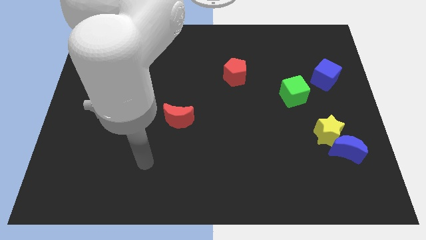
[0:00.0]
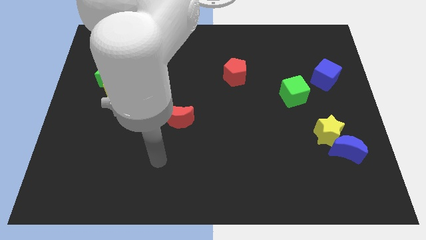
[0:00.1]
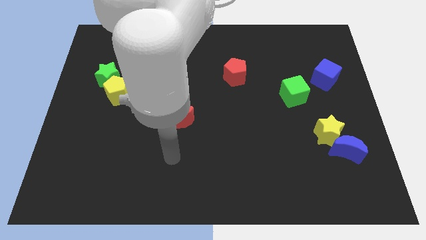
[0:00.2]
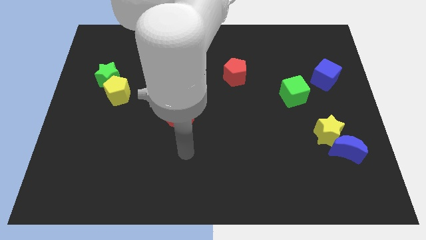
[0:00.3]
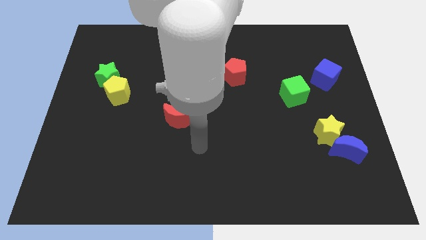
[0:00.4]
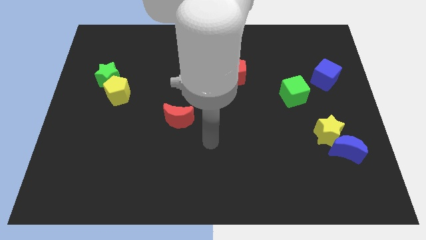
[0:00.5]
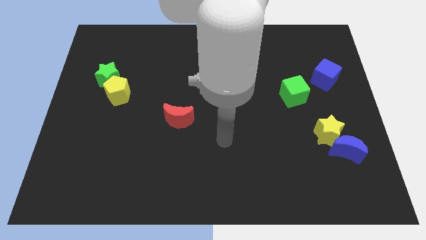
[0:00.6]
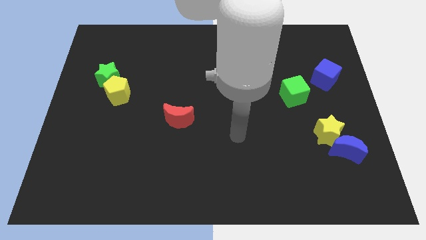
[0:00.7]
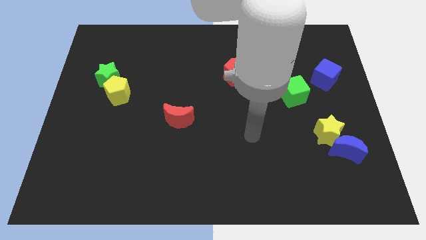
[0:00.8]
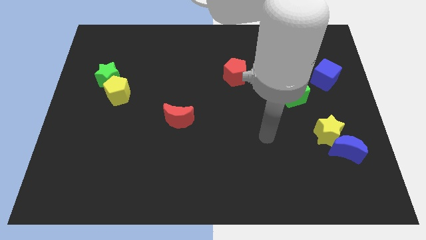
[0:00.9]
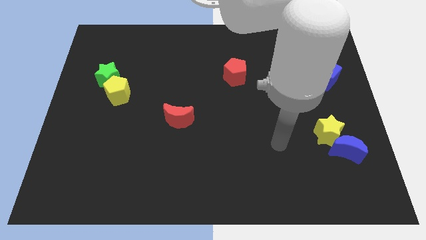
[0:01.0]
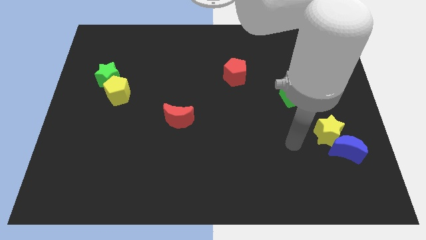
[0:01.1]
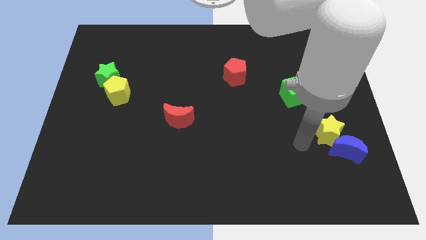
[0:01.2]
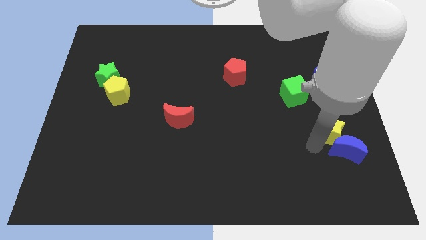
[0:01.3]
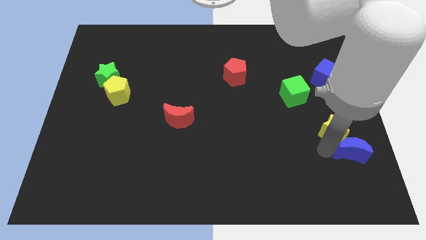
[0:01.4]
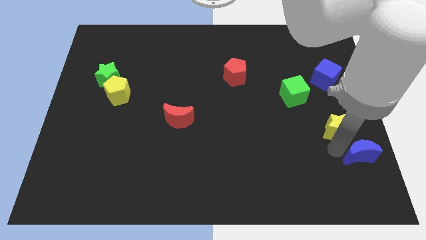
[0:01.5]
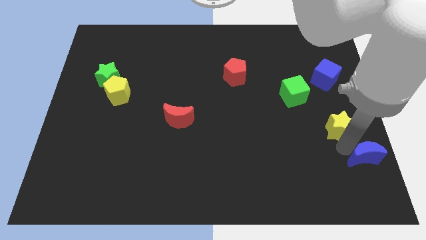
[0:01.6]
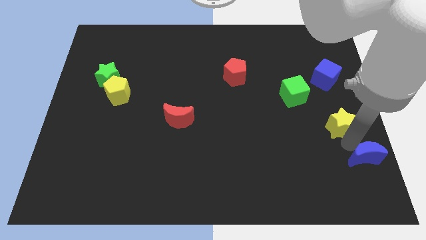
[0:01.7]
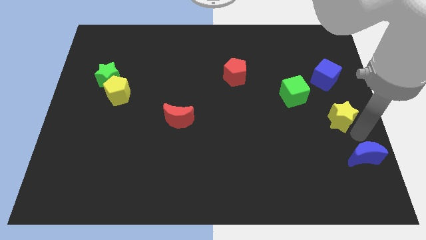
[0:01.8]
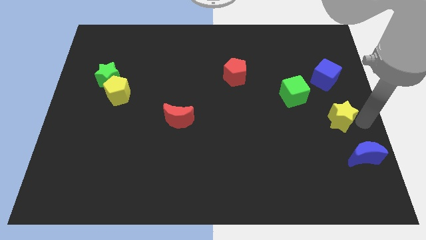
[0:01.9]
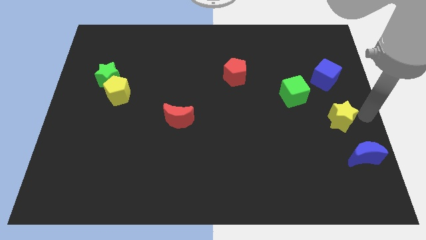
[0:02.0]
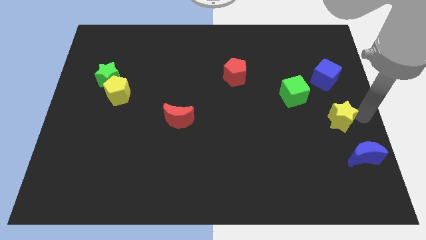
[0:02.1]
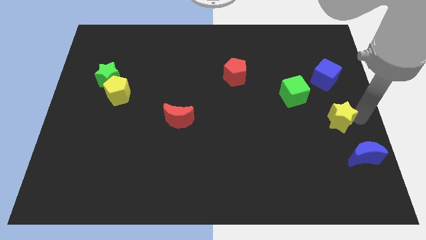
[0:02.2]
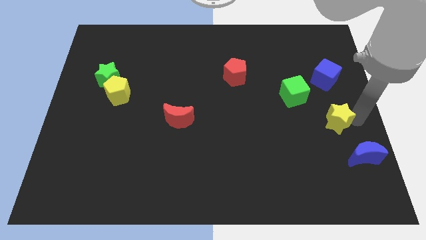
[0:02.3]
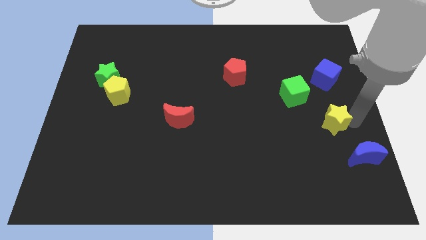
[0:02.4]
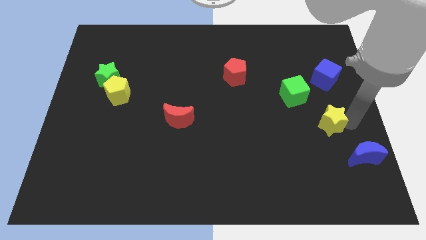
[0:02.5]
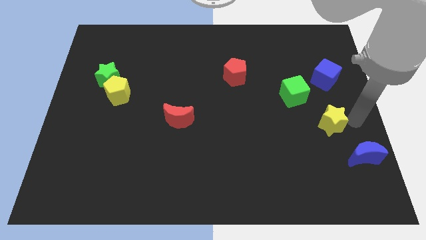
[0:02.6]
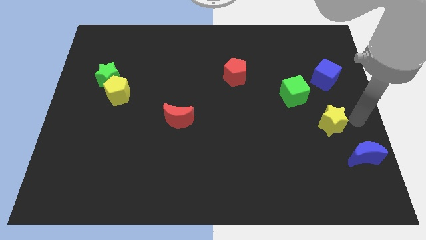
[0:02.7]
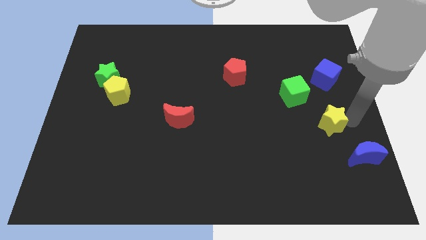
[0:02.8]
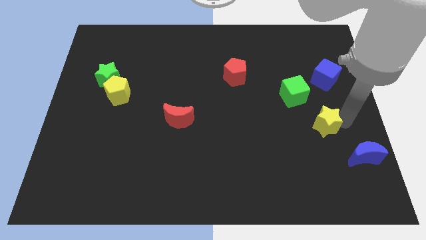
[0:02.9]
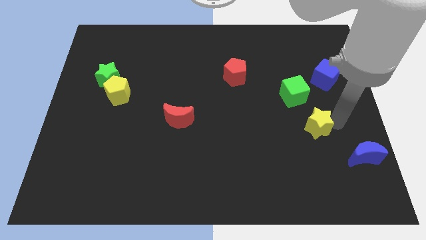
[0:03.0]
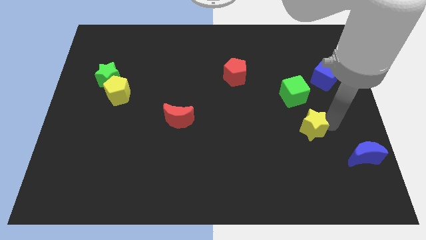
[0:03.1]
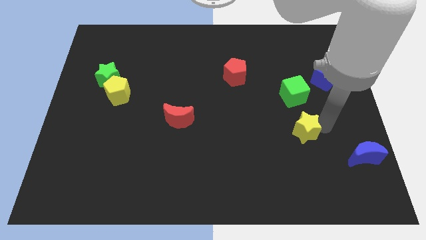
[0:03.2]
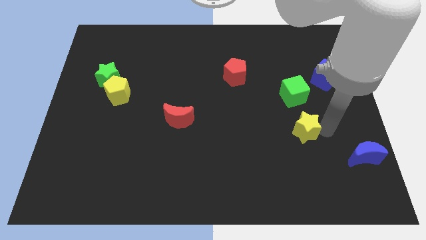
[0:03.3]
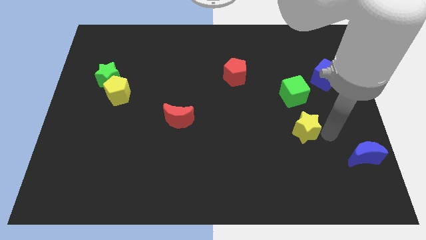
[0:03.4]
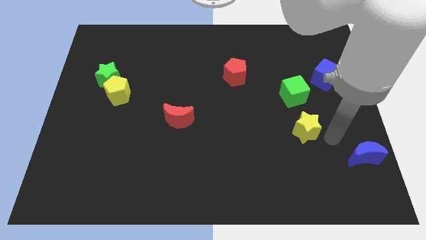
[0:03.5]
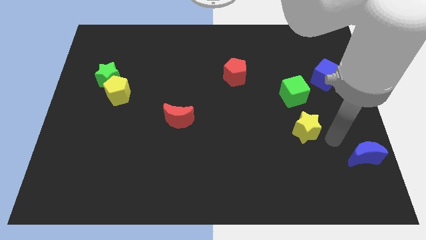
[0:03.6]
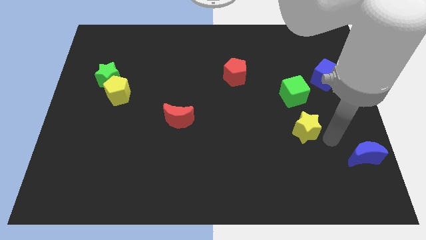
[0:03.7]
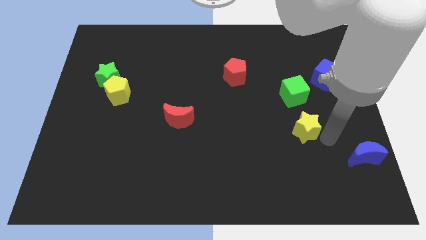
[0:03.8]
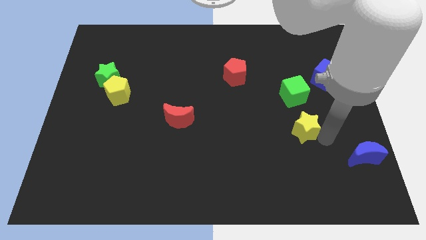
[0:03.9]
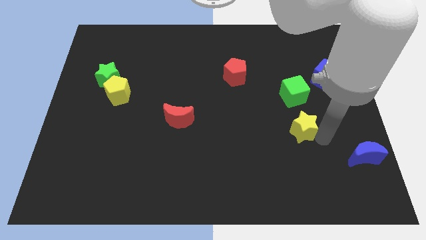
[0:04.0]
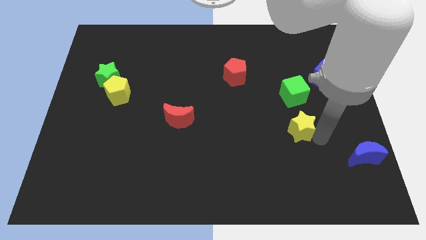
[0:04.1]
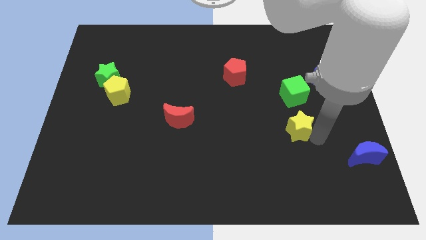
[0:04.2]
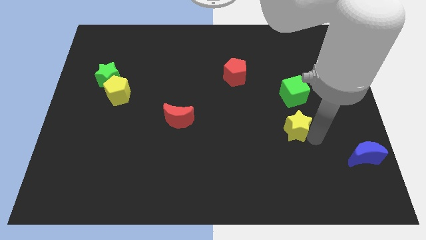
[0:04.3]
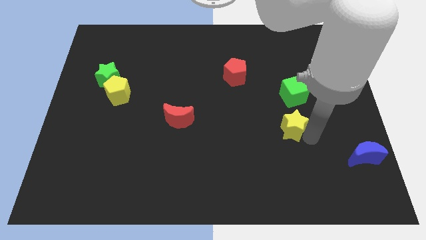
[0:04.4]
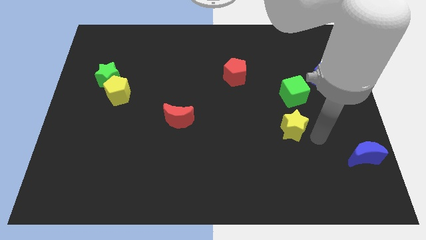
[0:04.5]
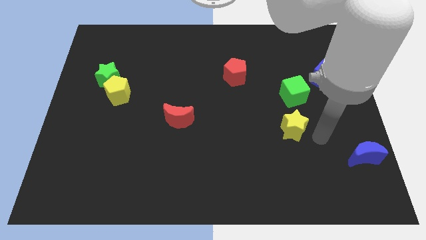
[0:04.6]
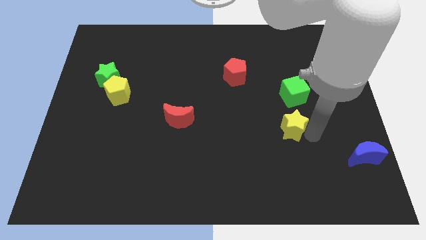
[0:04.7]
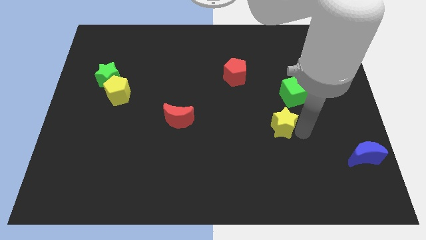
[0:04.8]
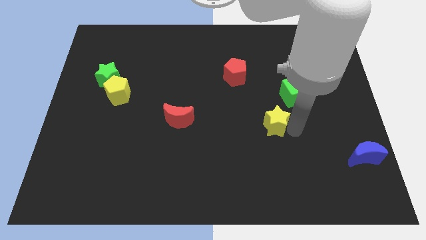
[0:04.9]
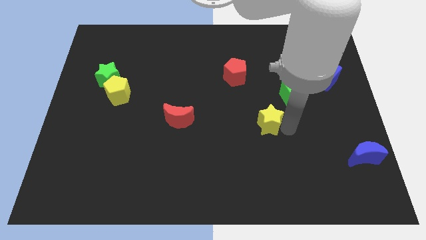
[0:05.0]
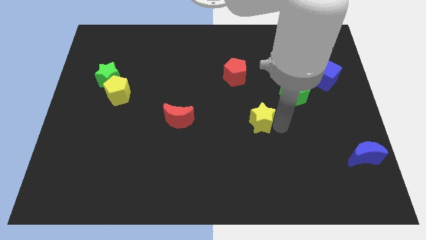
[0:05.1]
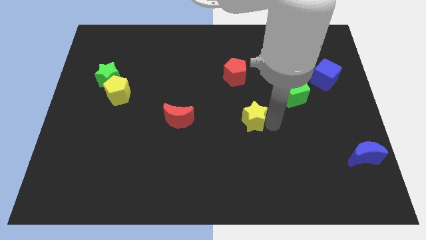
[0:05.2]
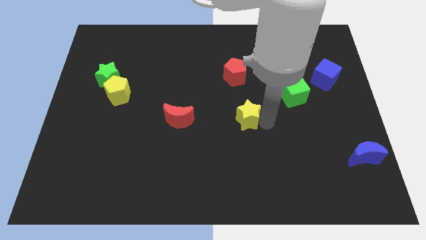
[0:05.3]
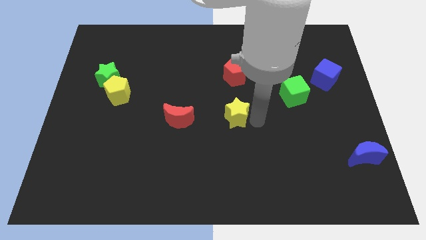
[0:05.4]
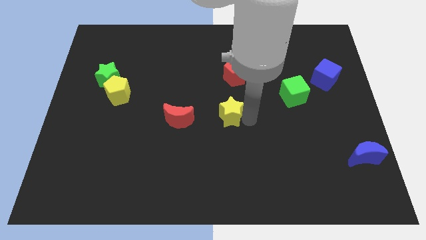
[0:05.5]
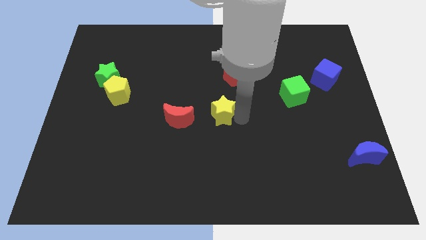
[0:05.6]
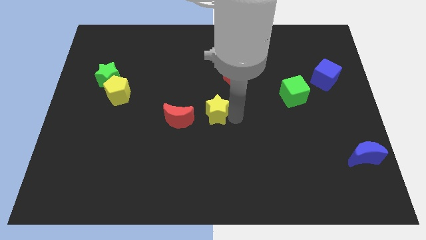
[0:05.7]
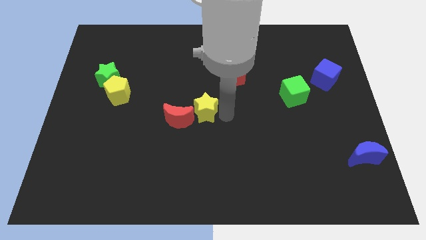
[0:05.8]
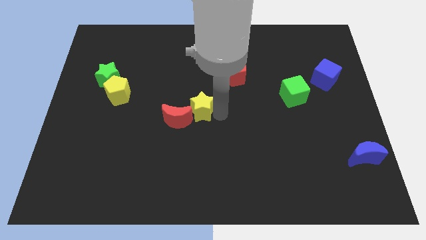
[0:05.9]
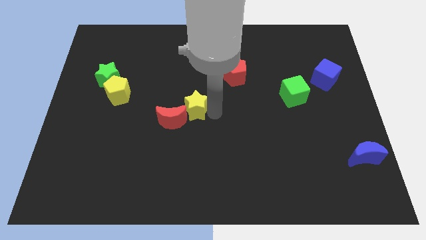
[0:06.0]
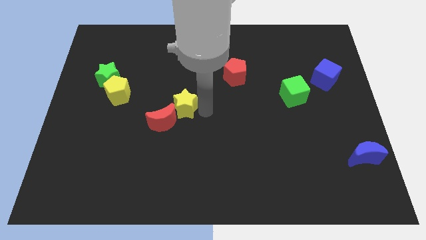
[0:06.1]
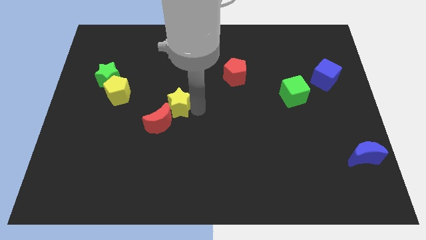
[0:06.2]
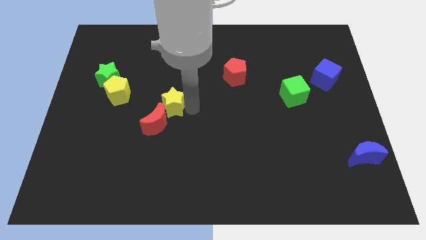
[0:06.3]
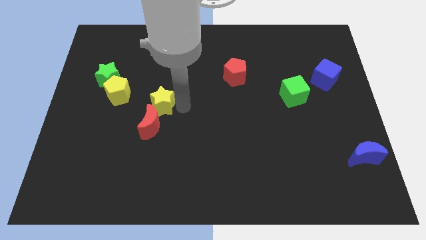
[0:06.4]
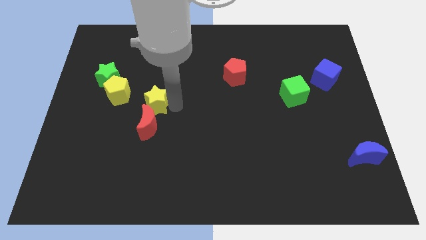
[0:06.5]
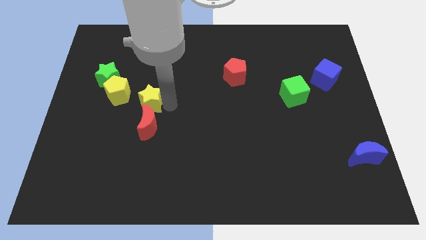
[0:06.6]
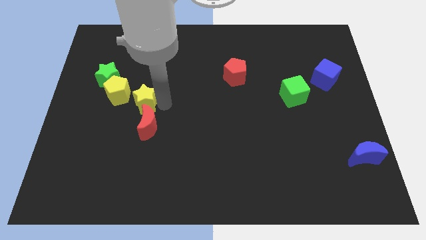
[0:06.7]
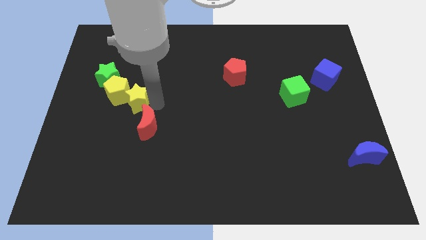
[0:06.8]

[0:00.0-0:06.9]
slide the yellow star close to the yellow pentagon

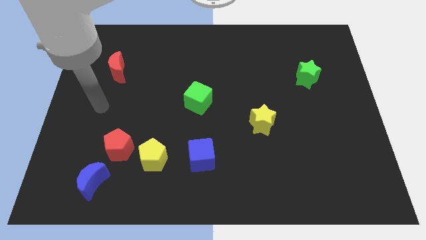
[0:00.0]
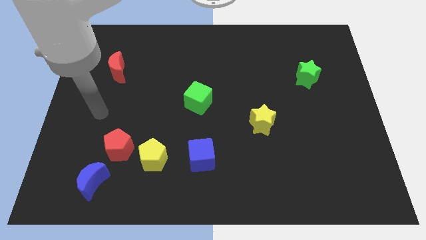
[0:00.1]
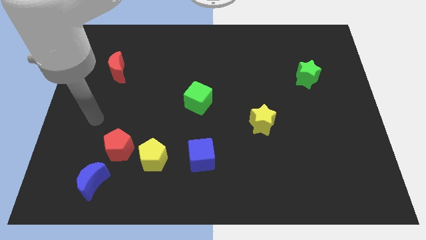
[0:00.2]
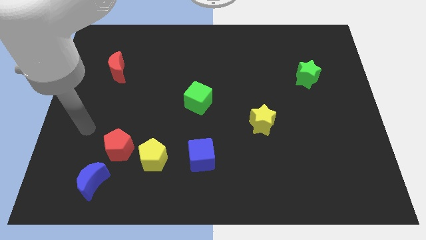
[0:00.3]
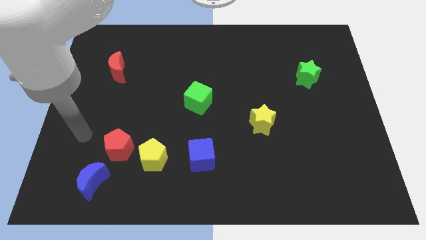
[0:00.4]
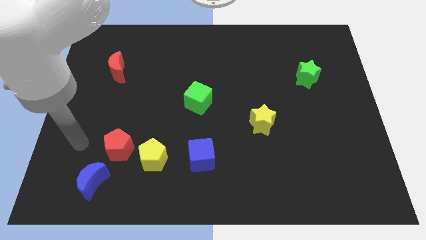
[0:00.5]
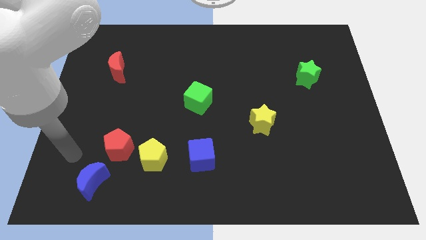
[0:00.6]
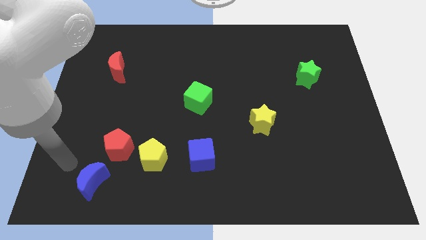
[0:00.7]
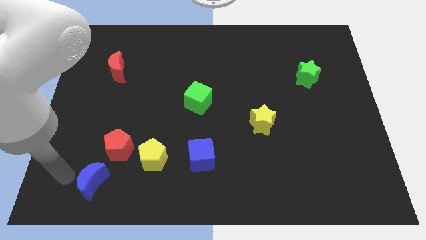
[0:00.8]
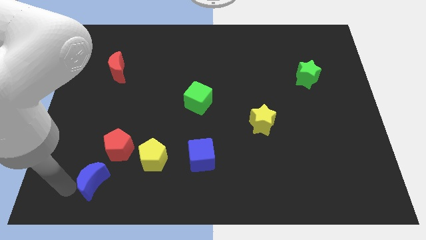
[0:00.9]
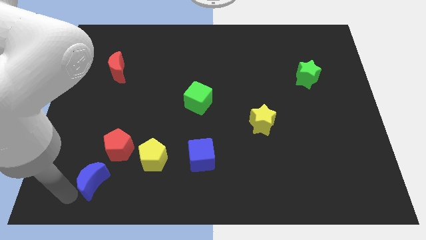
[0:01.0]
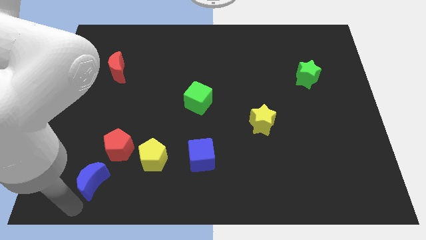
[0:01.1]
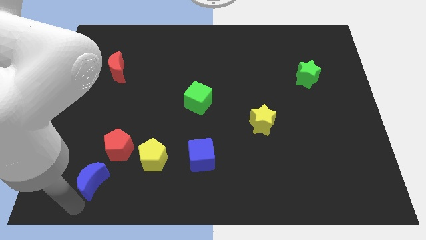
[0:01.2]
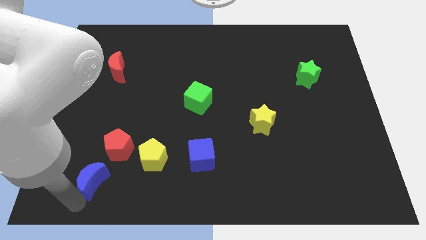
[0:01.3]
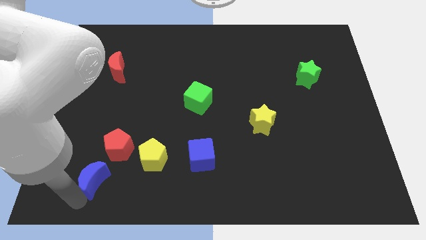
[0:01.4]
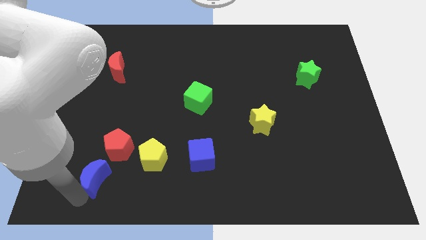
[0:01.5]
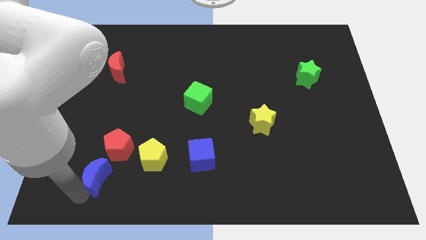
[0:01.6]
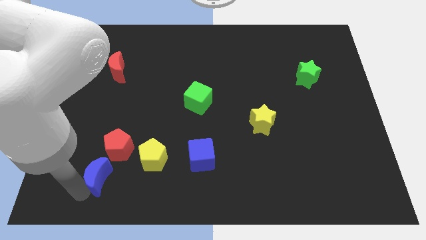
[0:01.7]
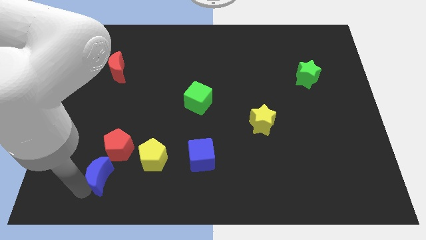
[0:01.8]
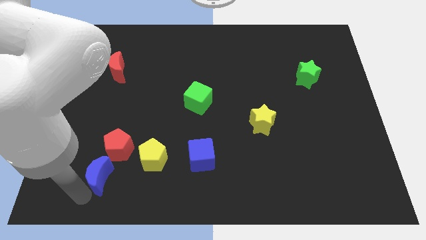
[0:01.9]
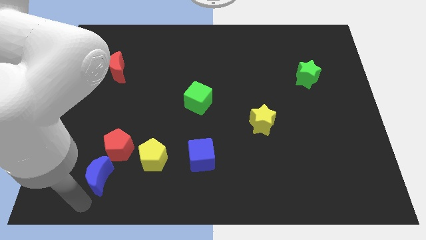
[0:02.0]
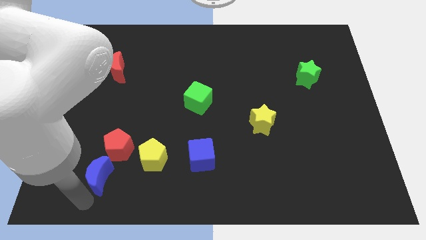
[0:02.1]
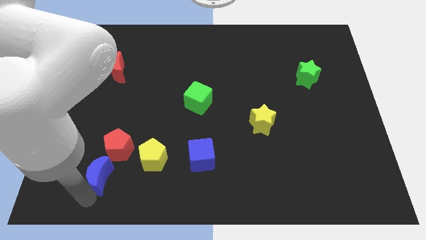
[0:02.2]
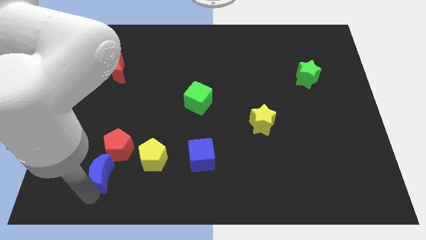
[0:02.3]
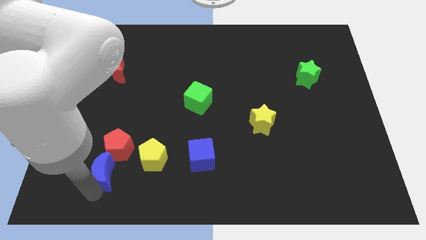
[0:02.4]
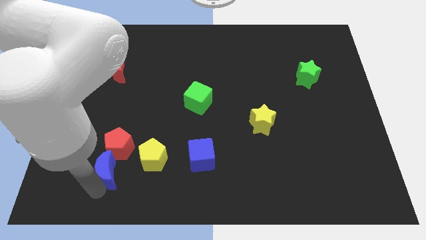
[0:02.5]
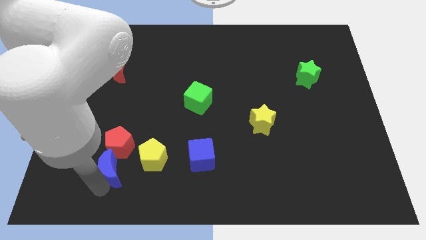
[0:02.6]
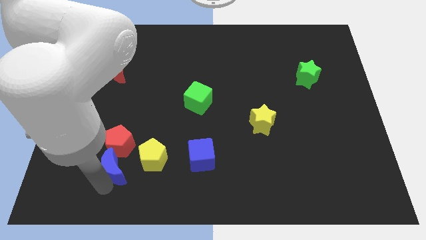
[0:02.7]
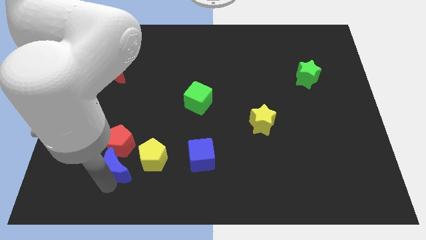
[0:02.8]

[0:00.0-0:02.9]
push the blue moon towards the red pentagon
